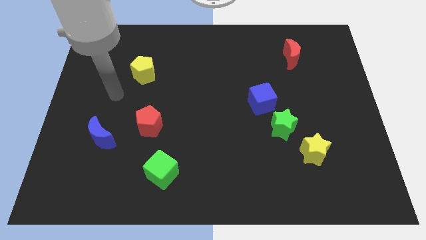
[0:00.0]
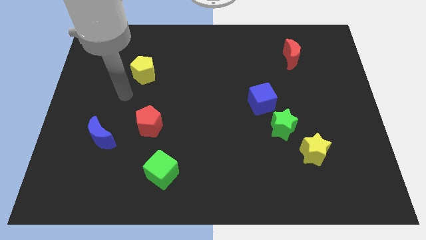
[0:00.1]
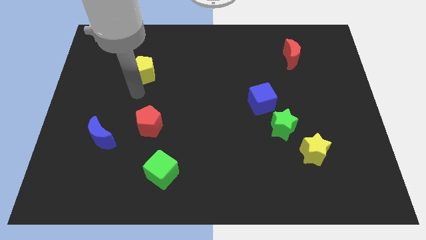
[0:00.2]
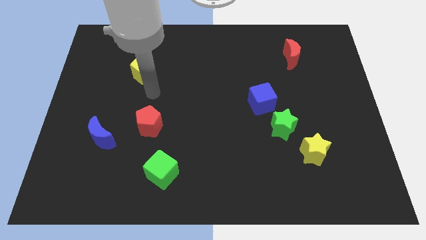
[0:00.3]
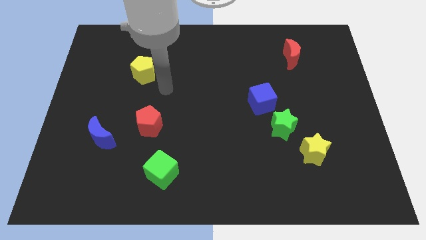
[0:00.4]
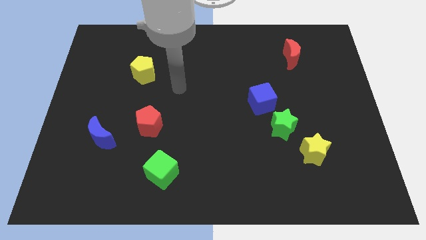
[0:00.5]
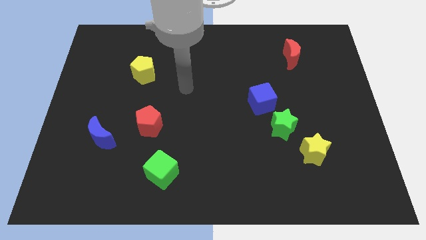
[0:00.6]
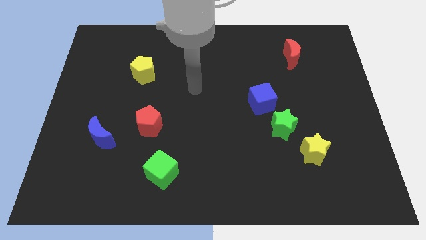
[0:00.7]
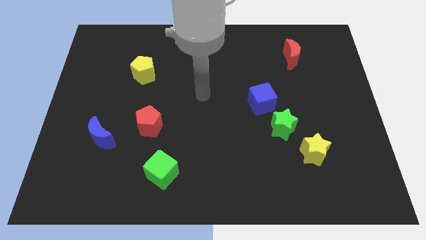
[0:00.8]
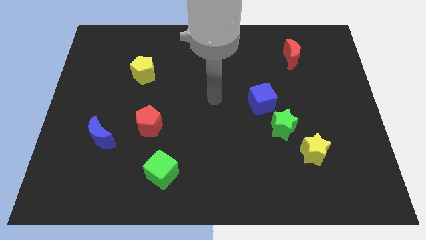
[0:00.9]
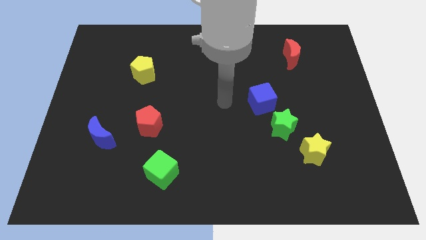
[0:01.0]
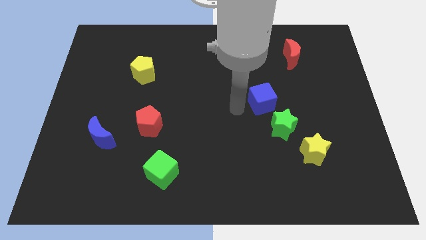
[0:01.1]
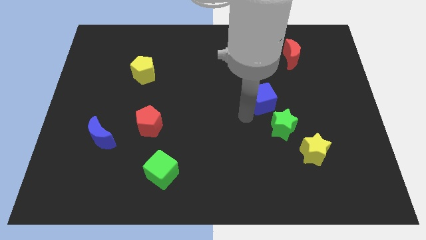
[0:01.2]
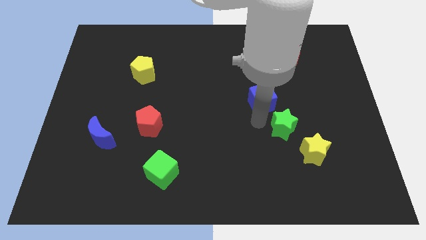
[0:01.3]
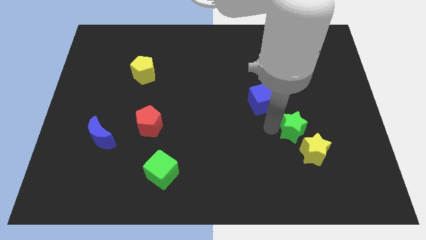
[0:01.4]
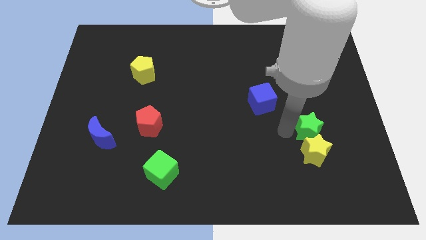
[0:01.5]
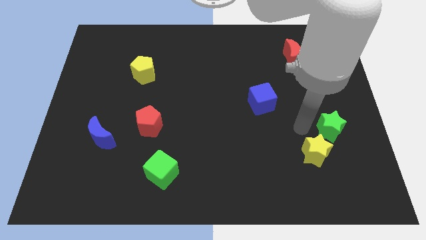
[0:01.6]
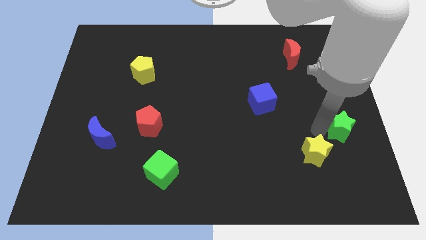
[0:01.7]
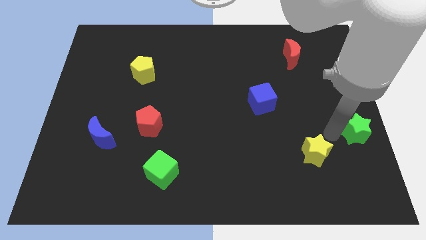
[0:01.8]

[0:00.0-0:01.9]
pull the yellow star apart from the green star

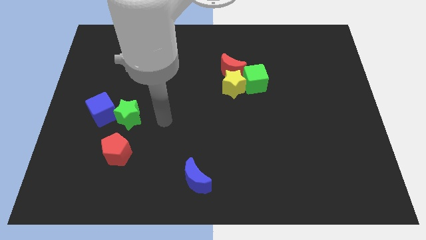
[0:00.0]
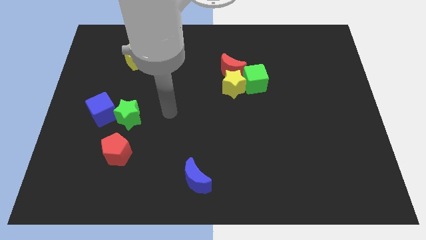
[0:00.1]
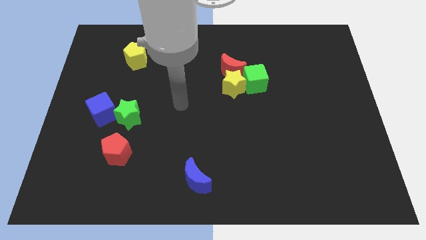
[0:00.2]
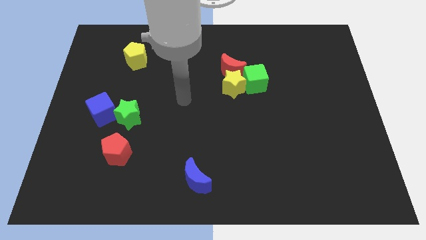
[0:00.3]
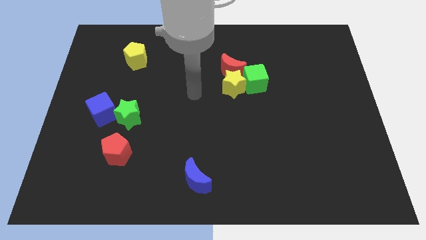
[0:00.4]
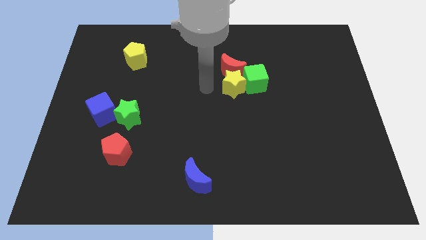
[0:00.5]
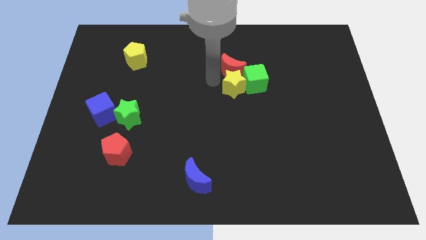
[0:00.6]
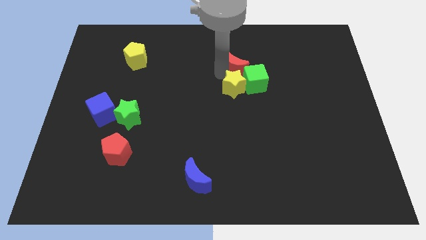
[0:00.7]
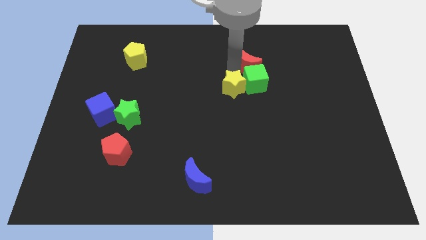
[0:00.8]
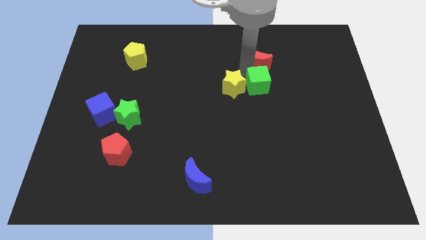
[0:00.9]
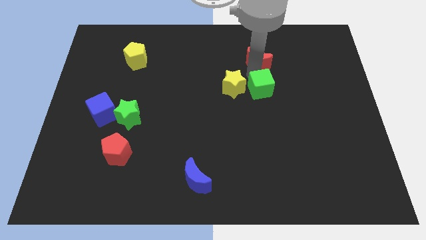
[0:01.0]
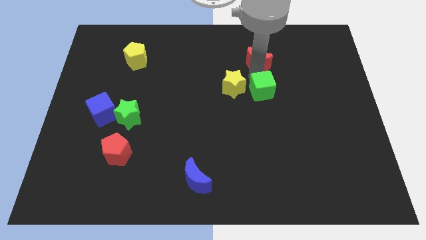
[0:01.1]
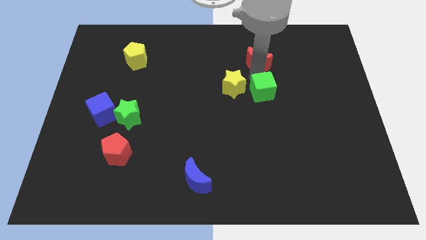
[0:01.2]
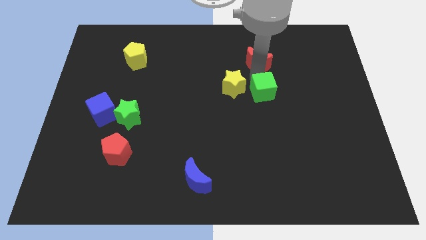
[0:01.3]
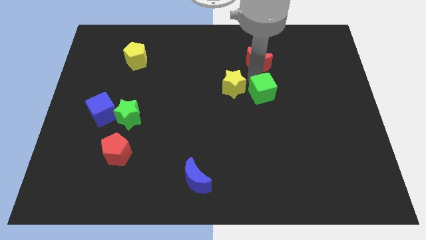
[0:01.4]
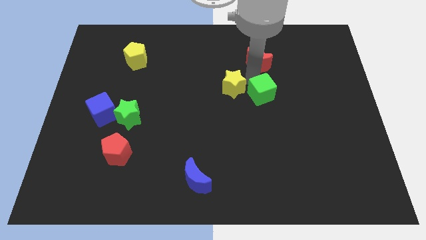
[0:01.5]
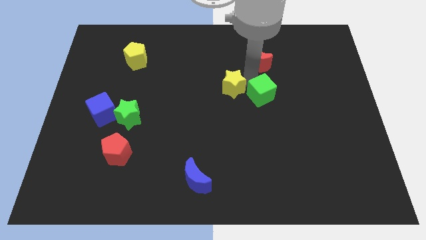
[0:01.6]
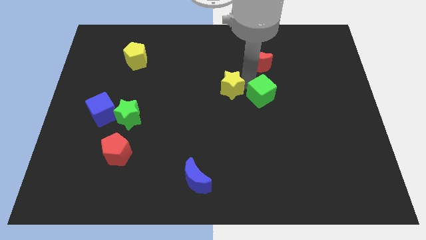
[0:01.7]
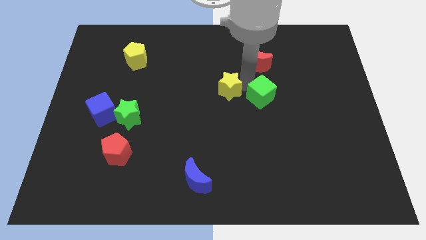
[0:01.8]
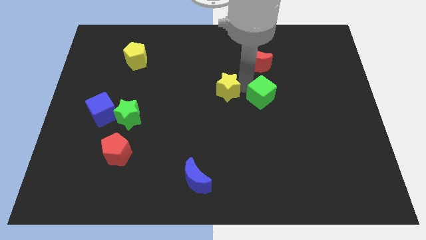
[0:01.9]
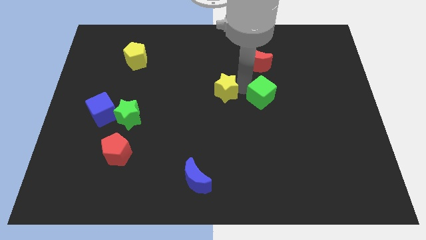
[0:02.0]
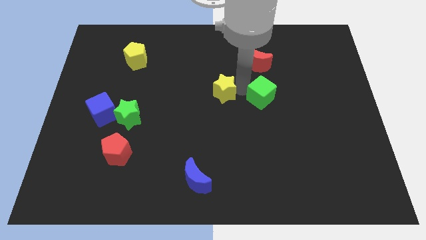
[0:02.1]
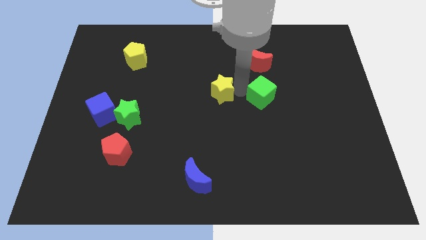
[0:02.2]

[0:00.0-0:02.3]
pull the yellow star apart from the red moon and green cube

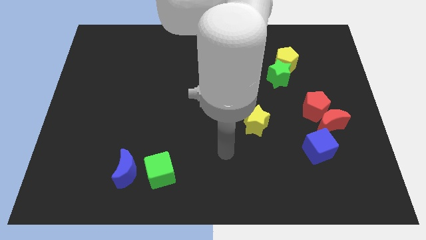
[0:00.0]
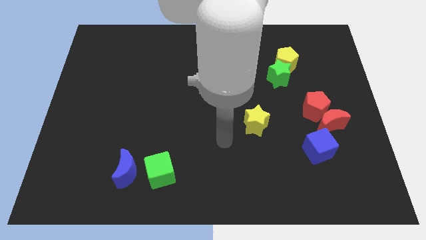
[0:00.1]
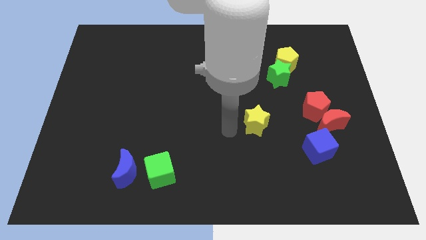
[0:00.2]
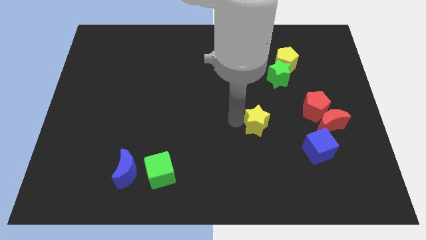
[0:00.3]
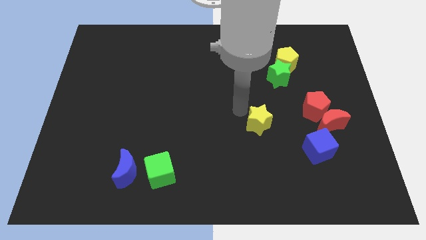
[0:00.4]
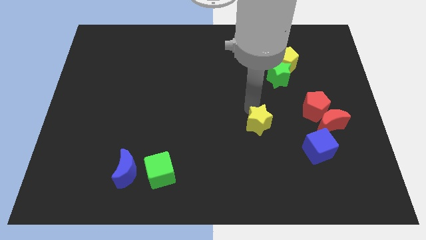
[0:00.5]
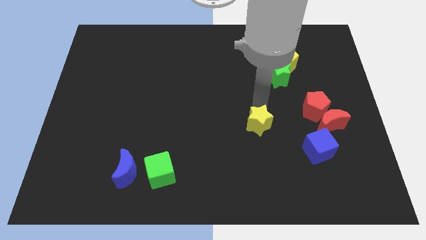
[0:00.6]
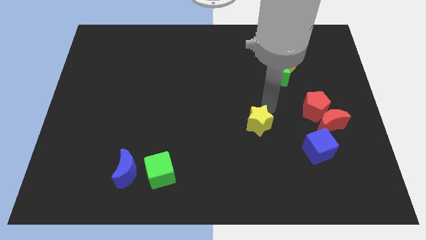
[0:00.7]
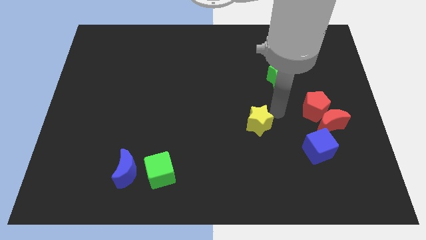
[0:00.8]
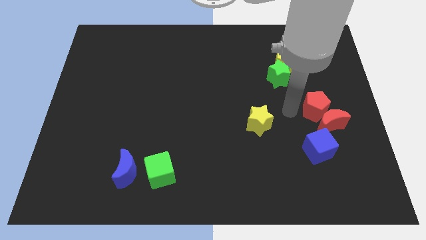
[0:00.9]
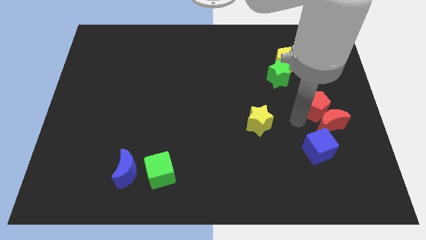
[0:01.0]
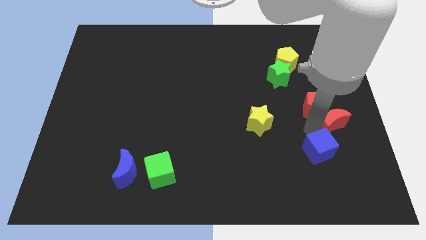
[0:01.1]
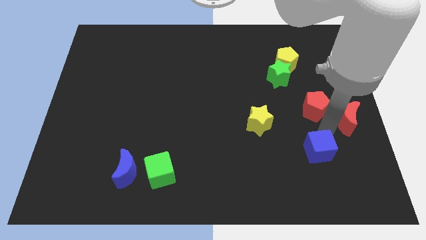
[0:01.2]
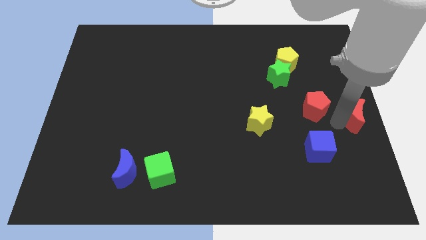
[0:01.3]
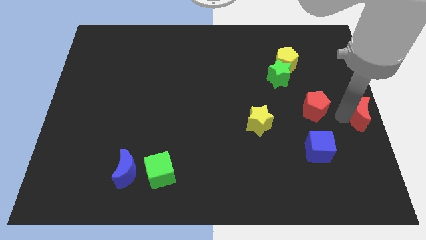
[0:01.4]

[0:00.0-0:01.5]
pull the red pentagon apart from the red moon

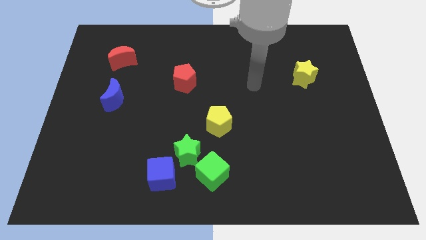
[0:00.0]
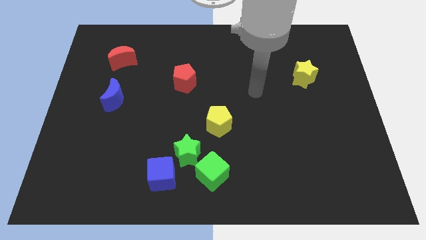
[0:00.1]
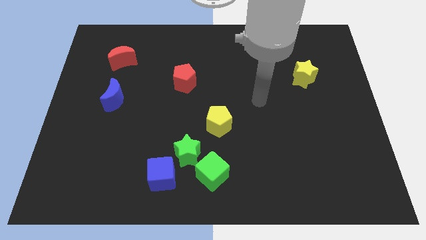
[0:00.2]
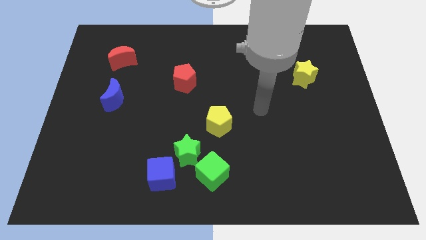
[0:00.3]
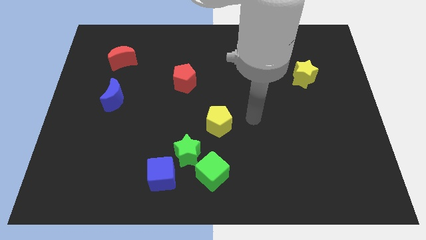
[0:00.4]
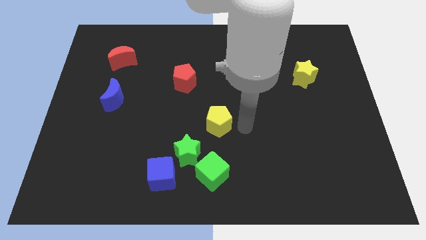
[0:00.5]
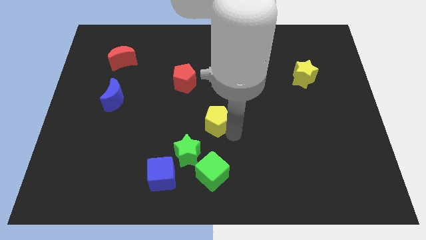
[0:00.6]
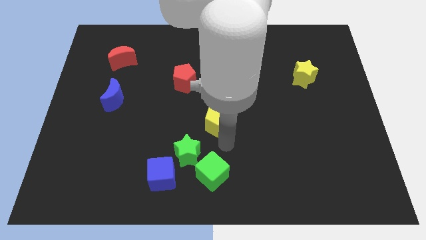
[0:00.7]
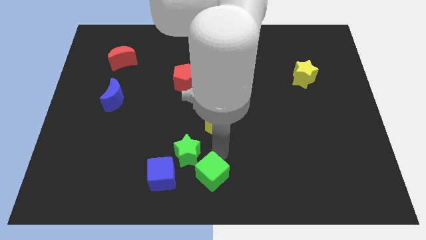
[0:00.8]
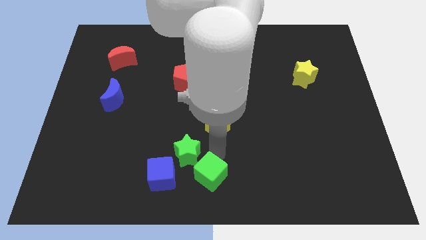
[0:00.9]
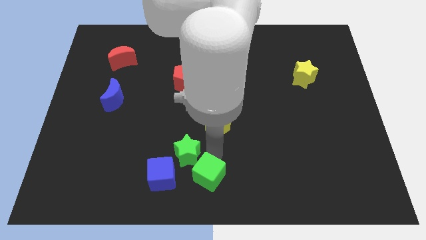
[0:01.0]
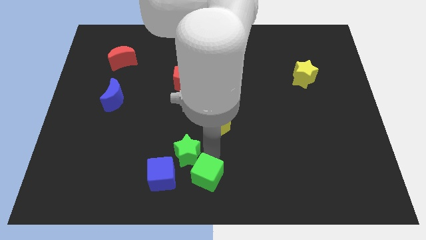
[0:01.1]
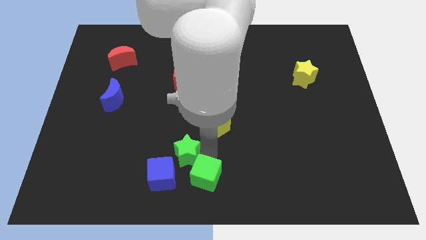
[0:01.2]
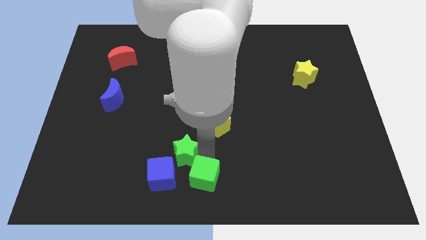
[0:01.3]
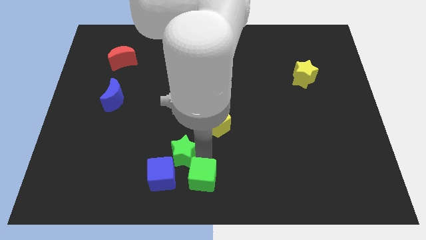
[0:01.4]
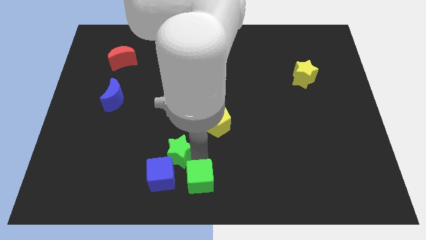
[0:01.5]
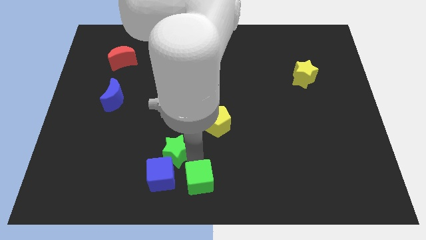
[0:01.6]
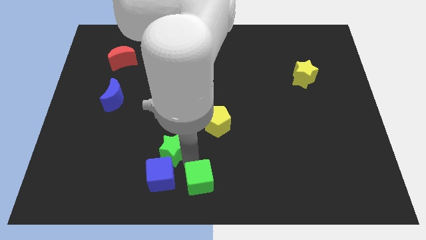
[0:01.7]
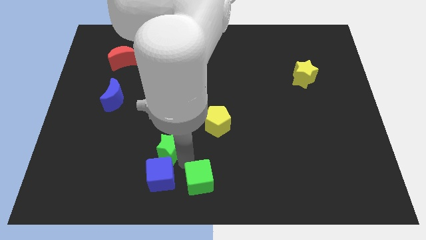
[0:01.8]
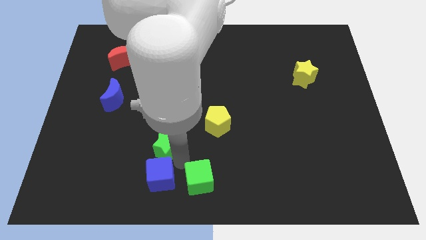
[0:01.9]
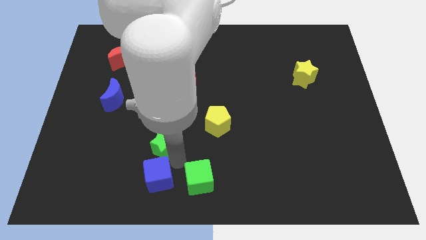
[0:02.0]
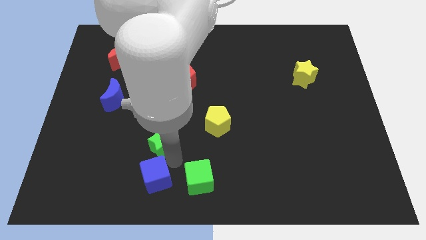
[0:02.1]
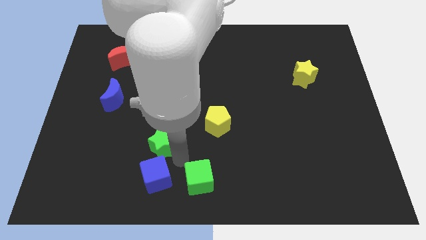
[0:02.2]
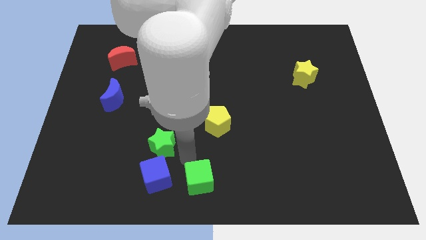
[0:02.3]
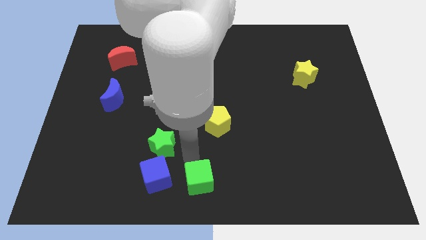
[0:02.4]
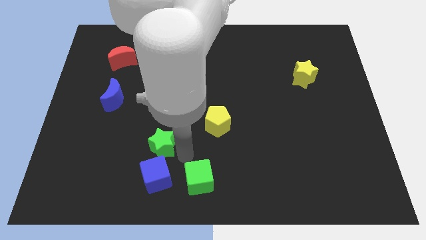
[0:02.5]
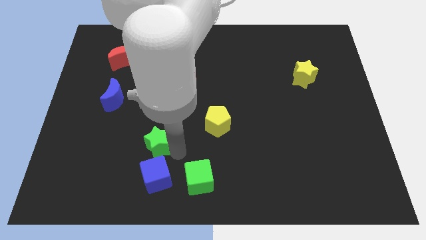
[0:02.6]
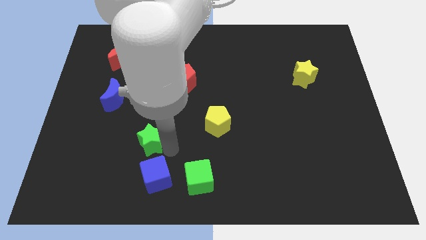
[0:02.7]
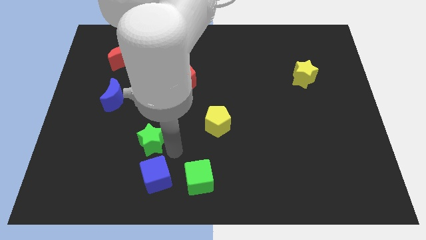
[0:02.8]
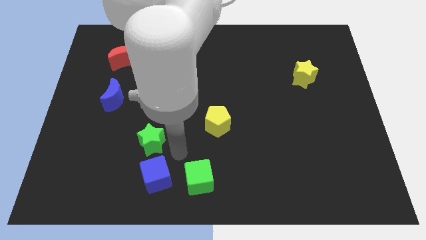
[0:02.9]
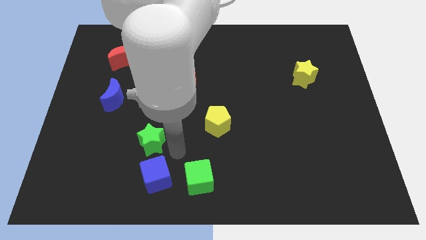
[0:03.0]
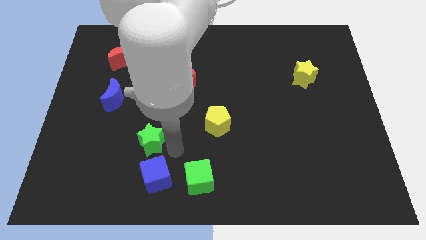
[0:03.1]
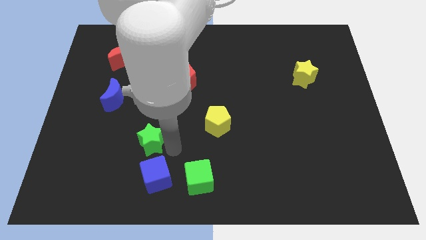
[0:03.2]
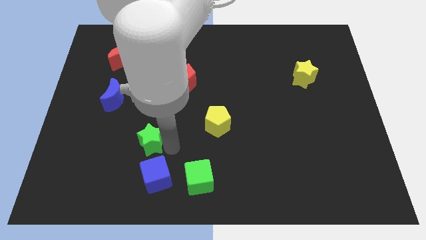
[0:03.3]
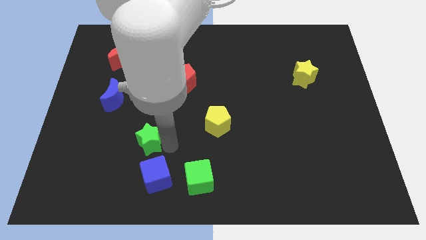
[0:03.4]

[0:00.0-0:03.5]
pull the green star apart from the group

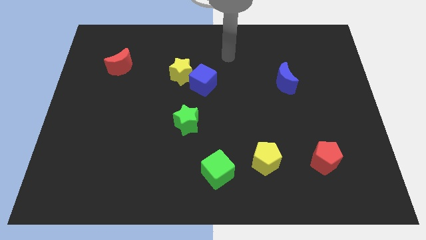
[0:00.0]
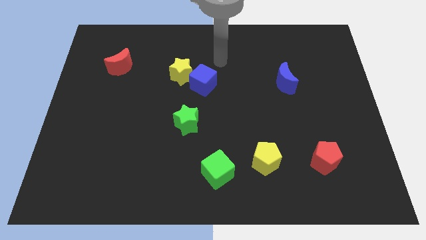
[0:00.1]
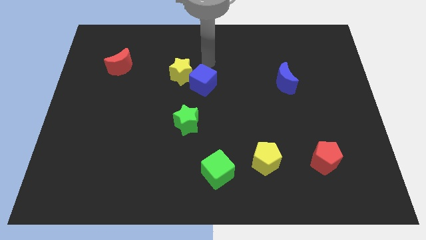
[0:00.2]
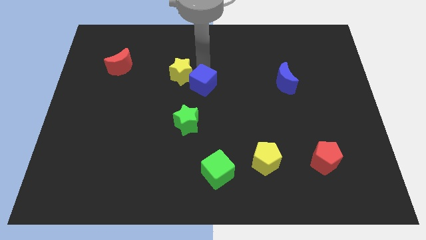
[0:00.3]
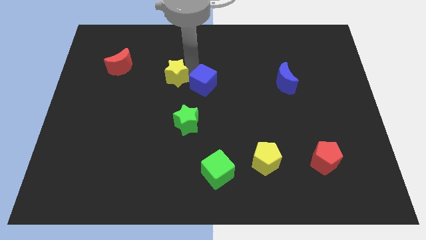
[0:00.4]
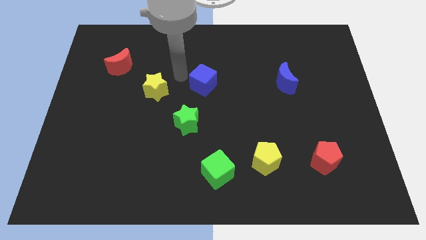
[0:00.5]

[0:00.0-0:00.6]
move the blue cube away from the yellow star
